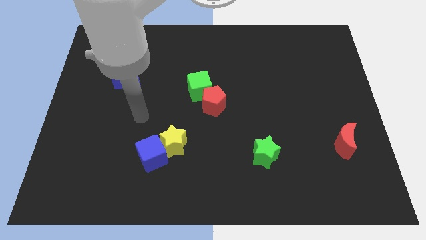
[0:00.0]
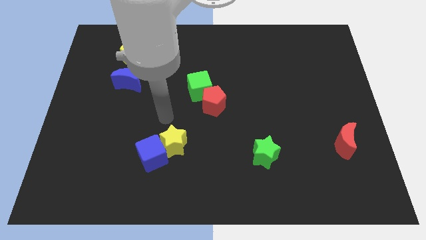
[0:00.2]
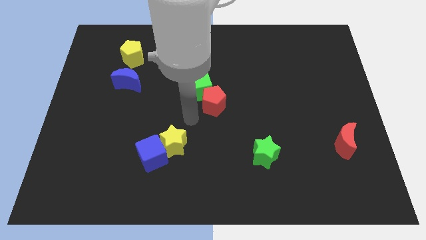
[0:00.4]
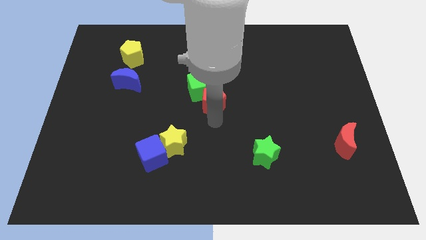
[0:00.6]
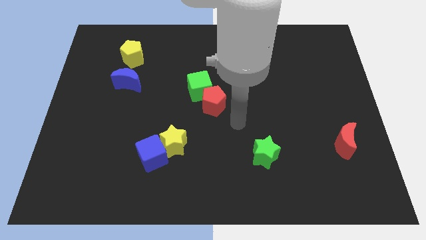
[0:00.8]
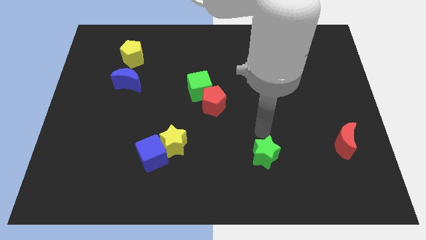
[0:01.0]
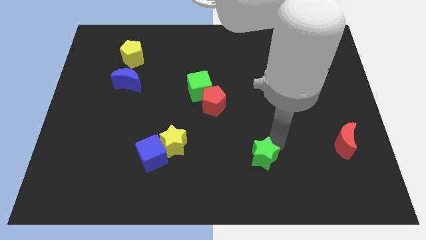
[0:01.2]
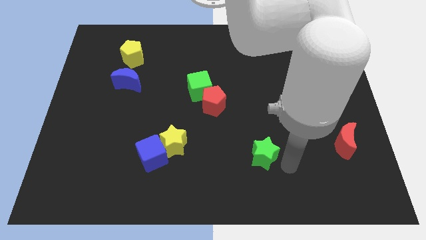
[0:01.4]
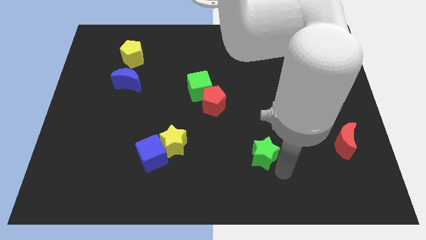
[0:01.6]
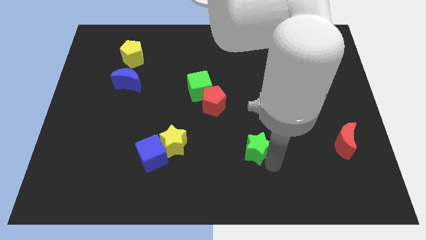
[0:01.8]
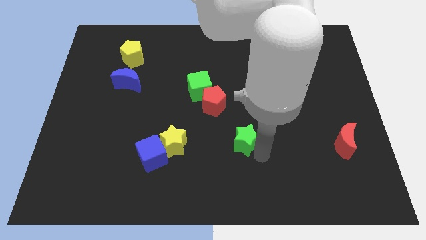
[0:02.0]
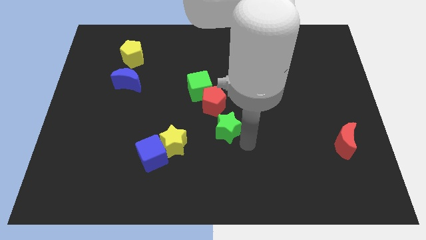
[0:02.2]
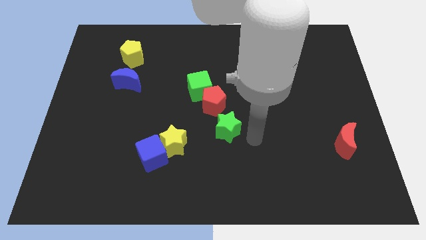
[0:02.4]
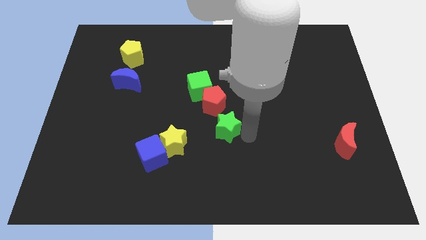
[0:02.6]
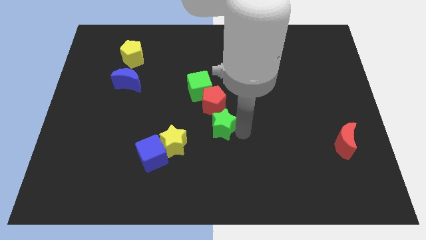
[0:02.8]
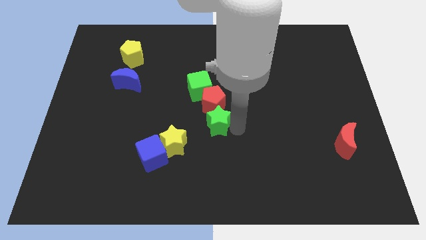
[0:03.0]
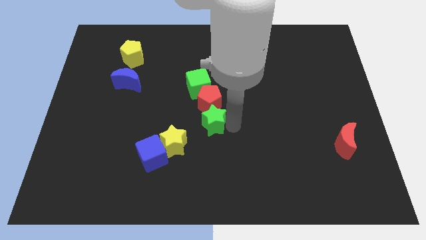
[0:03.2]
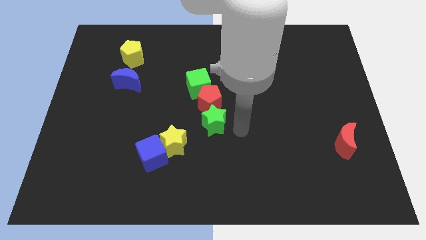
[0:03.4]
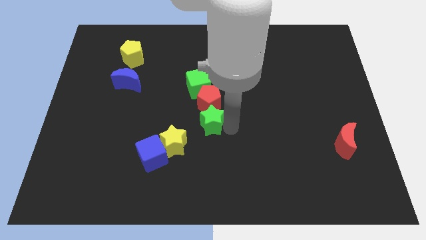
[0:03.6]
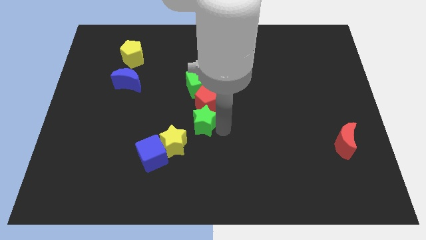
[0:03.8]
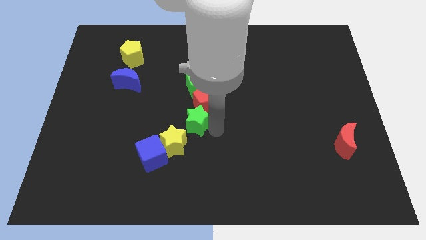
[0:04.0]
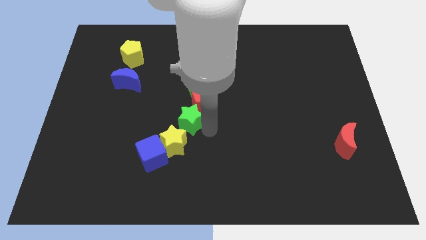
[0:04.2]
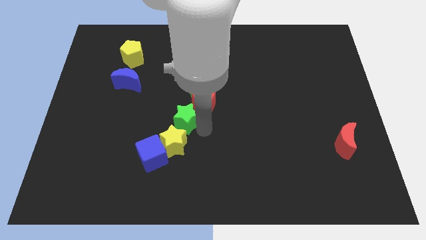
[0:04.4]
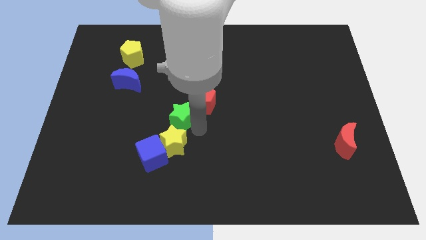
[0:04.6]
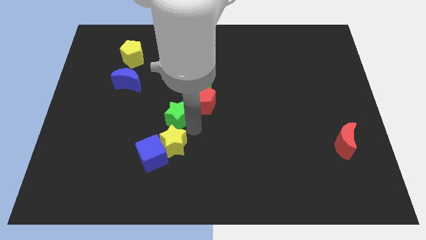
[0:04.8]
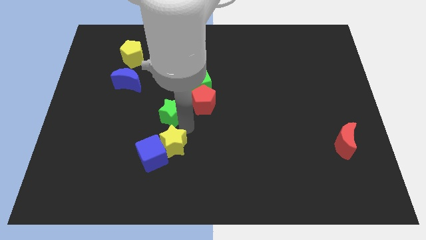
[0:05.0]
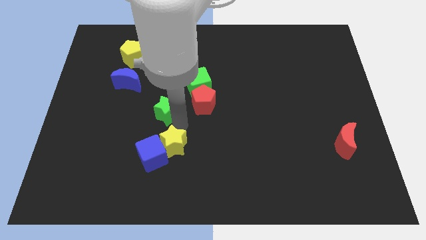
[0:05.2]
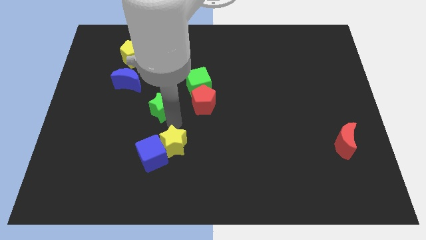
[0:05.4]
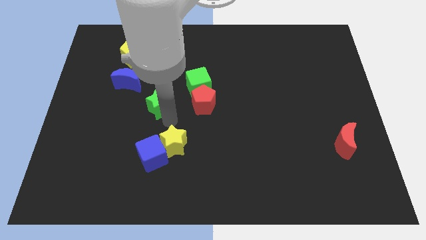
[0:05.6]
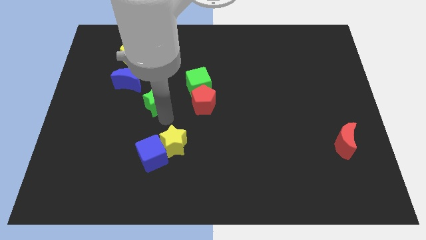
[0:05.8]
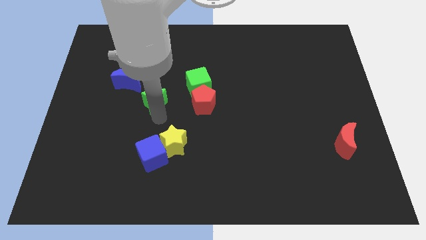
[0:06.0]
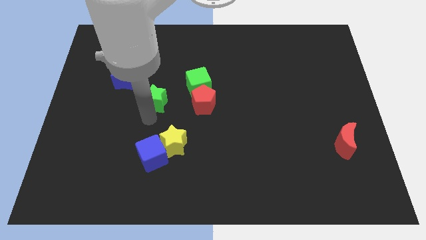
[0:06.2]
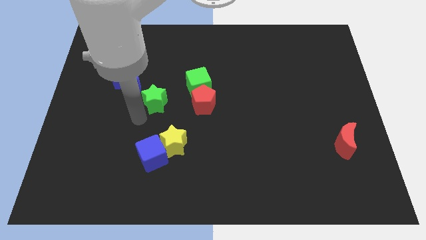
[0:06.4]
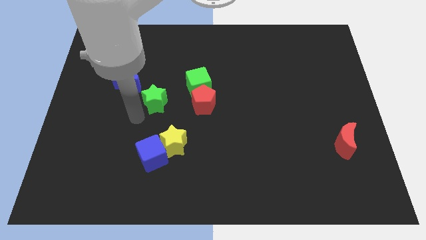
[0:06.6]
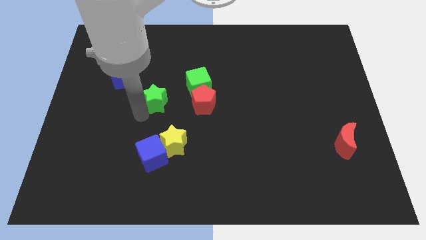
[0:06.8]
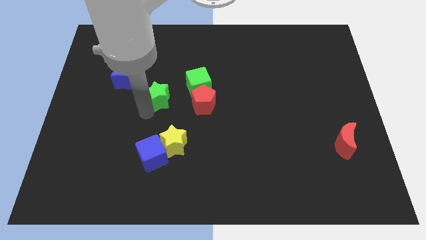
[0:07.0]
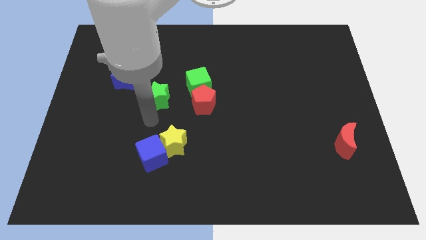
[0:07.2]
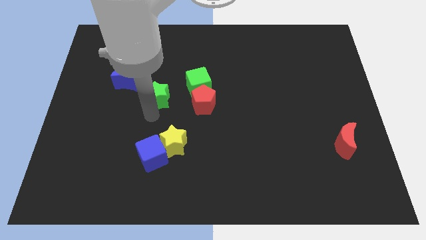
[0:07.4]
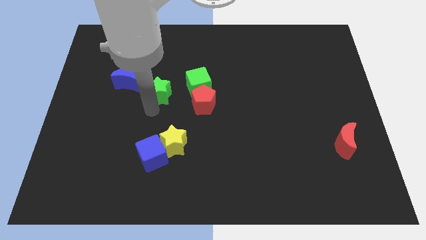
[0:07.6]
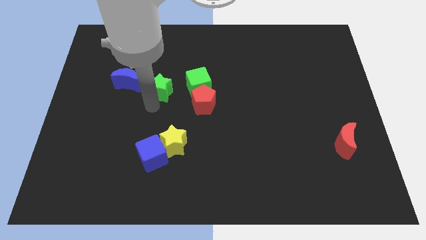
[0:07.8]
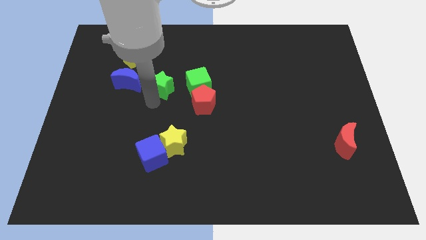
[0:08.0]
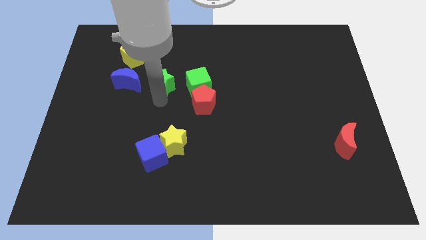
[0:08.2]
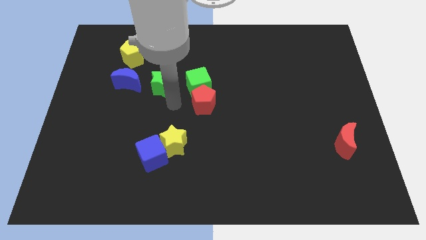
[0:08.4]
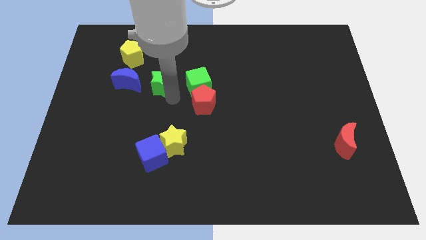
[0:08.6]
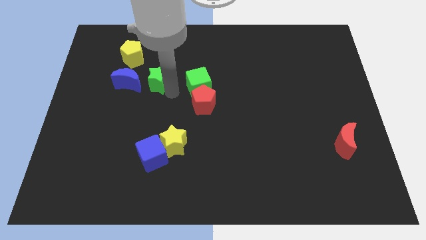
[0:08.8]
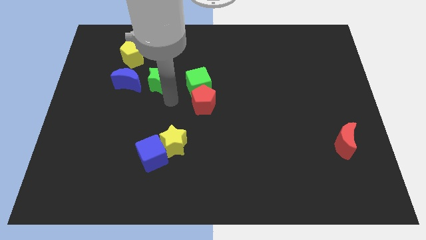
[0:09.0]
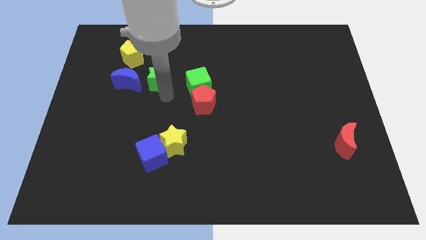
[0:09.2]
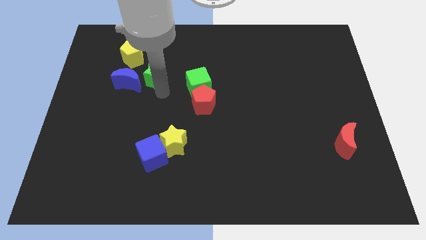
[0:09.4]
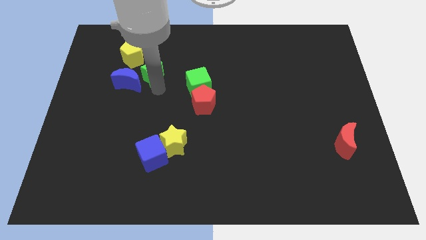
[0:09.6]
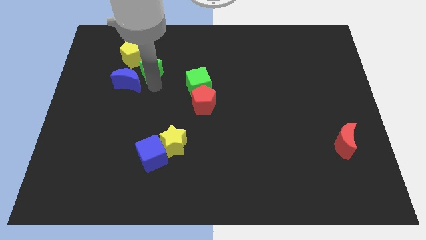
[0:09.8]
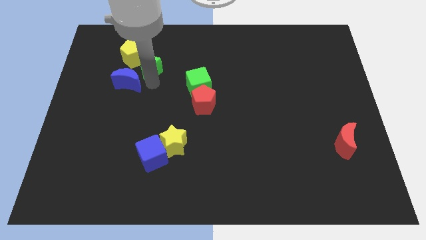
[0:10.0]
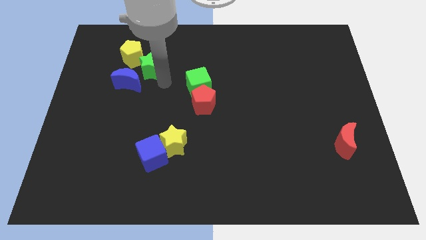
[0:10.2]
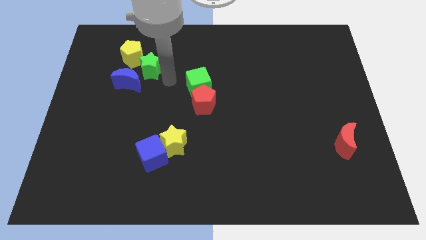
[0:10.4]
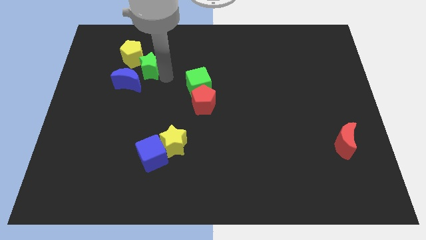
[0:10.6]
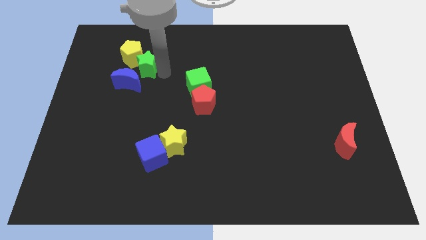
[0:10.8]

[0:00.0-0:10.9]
push the green star close to the yellow pentagon

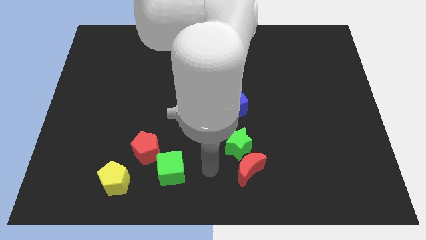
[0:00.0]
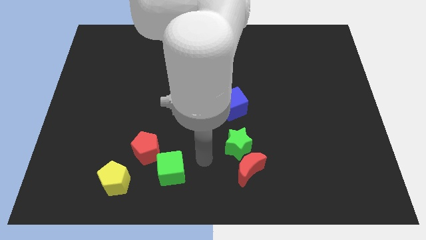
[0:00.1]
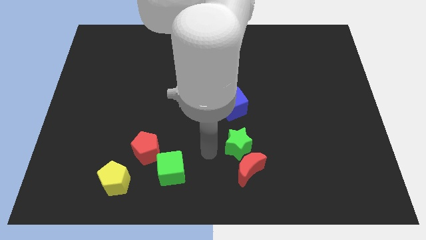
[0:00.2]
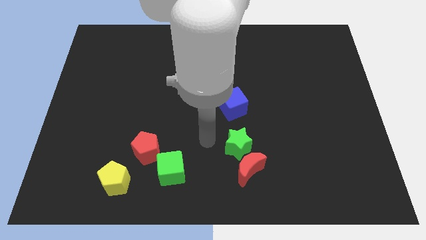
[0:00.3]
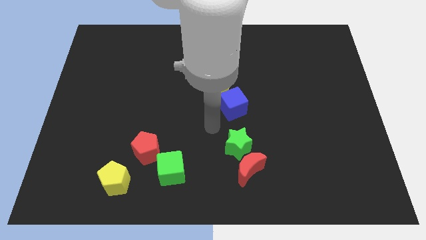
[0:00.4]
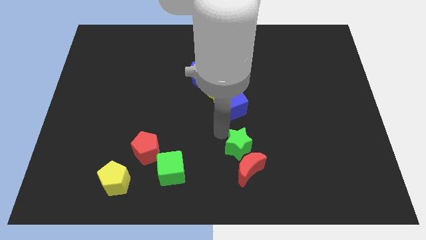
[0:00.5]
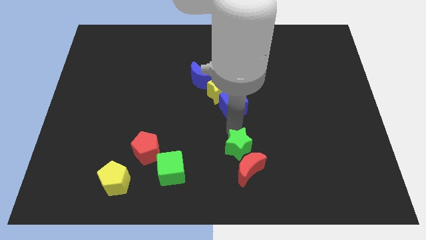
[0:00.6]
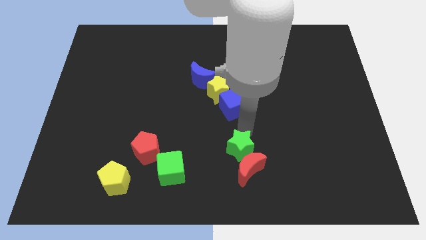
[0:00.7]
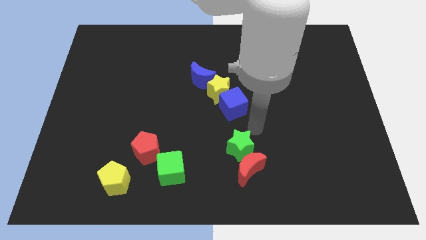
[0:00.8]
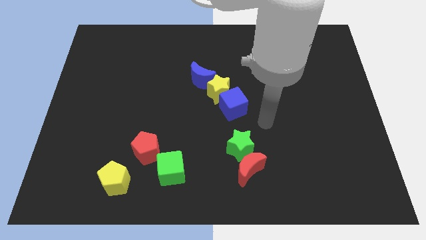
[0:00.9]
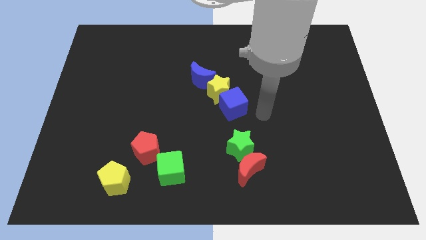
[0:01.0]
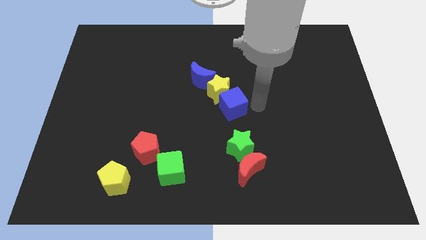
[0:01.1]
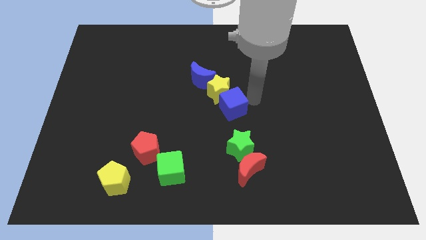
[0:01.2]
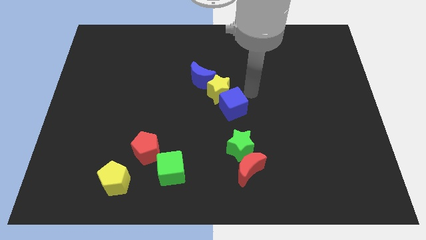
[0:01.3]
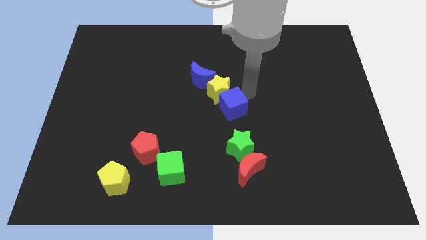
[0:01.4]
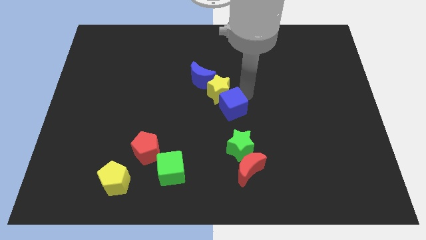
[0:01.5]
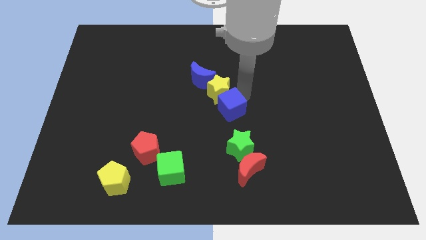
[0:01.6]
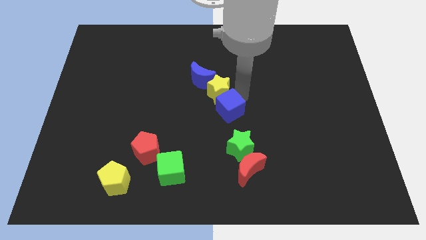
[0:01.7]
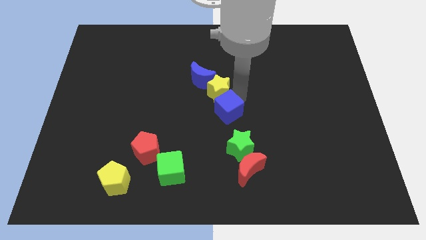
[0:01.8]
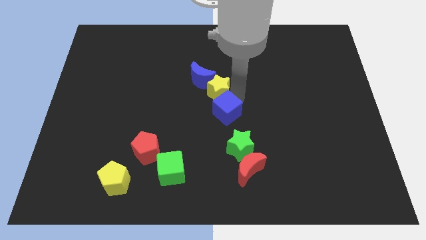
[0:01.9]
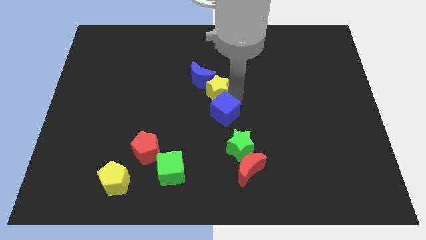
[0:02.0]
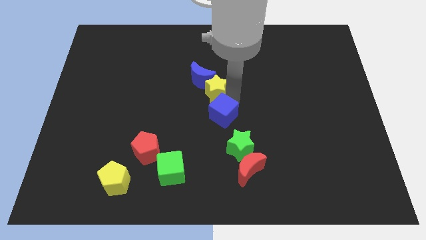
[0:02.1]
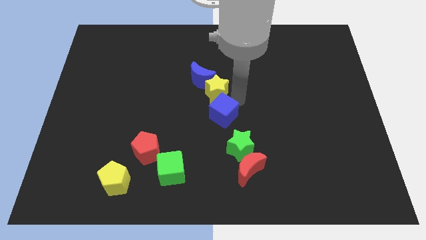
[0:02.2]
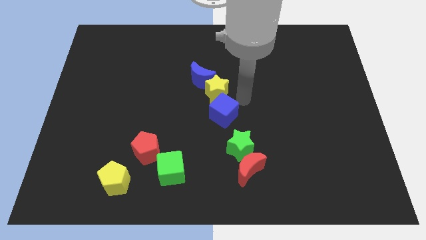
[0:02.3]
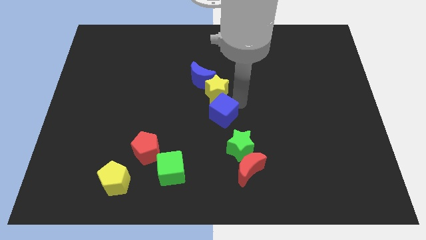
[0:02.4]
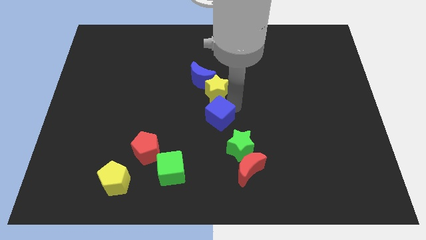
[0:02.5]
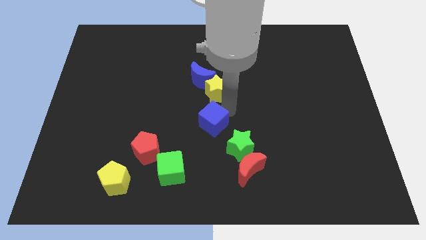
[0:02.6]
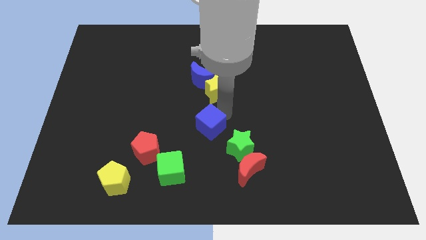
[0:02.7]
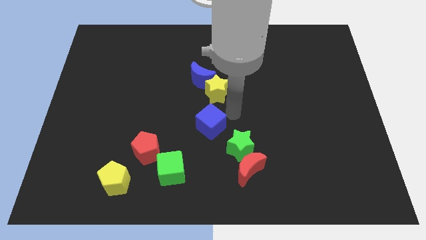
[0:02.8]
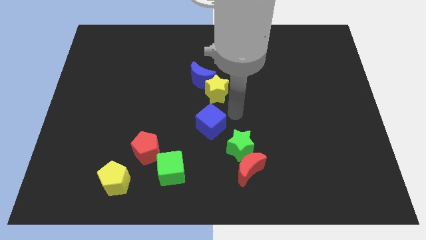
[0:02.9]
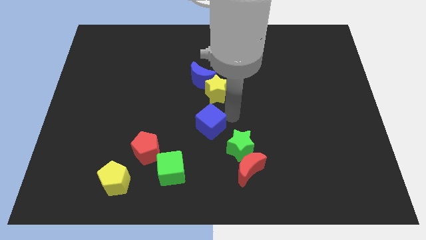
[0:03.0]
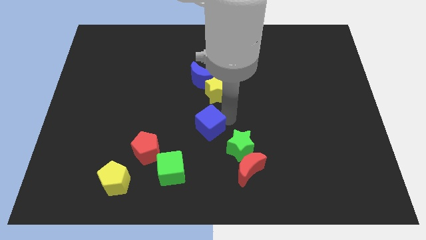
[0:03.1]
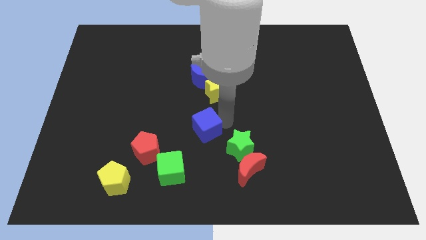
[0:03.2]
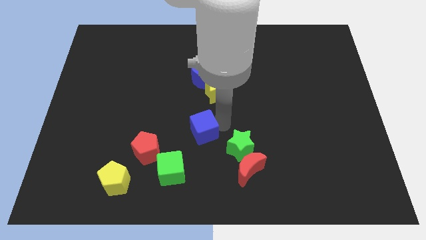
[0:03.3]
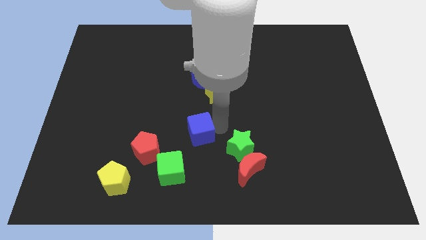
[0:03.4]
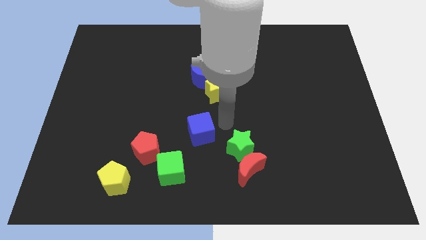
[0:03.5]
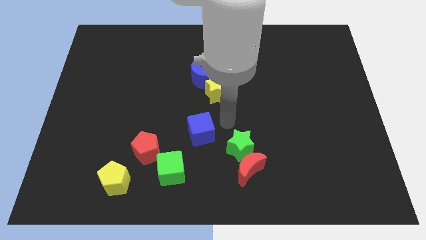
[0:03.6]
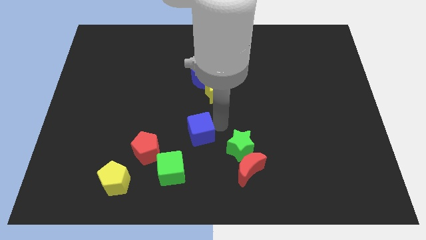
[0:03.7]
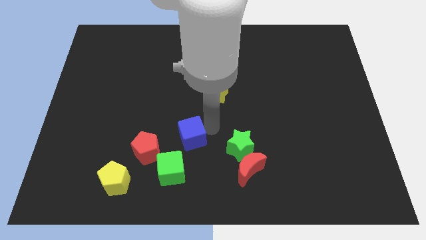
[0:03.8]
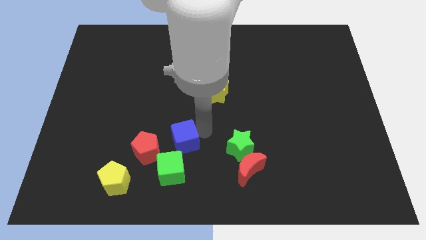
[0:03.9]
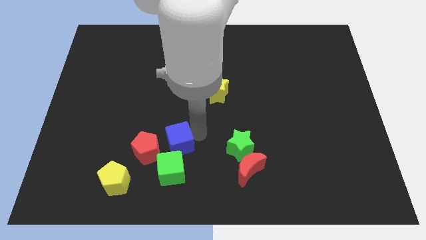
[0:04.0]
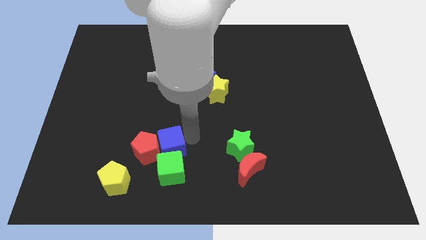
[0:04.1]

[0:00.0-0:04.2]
move the blue cube next to the red pentagon
